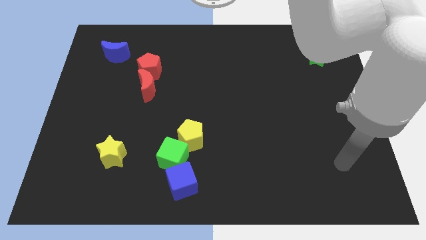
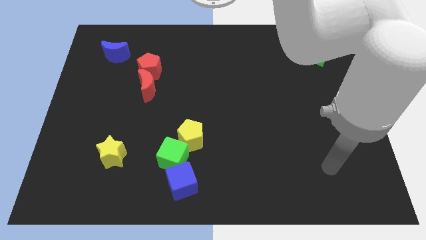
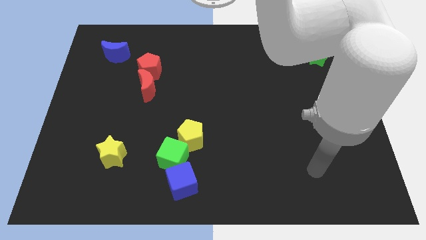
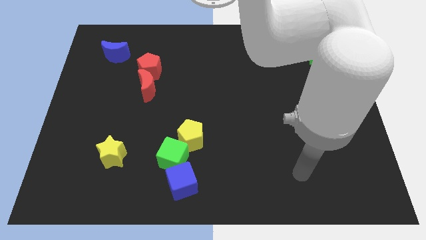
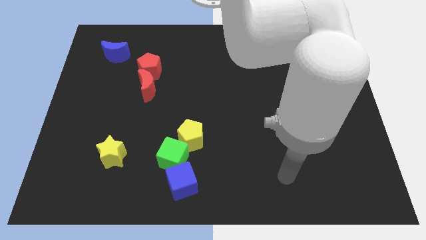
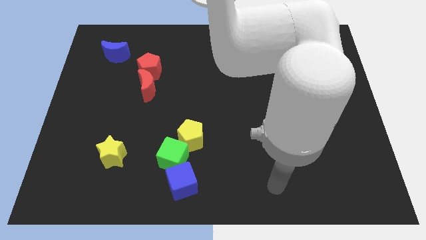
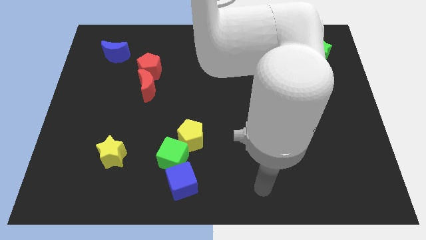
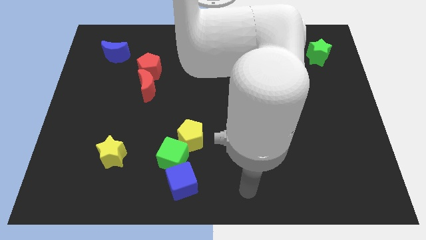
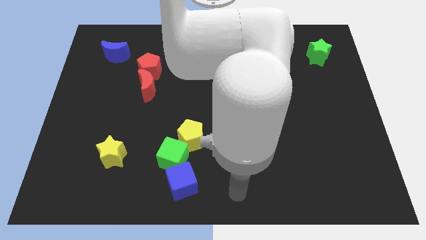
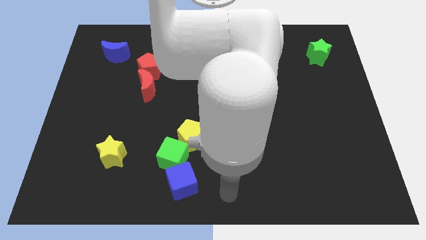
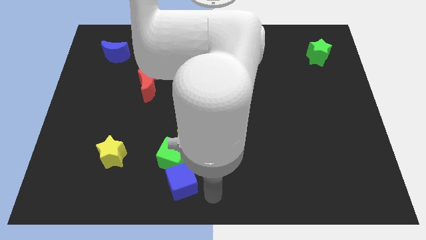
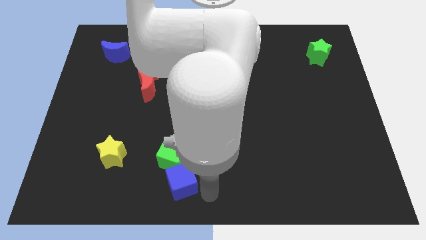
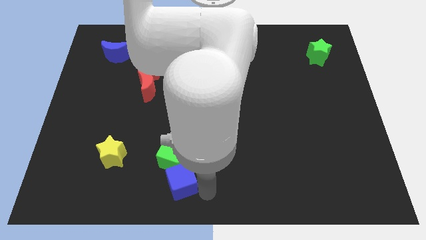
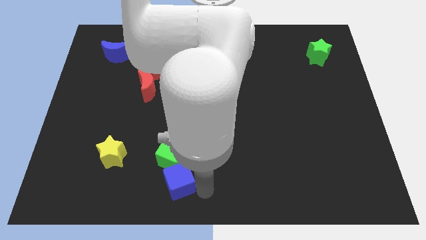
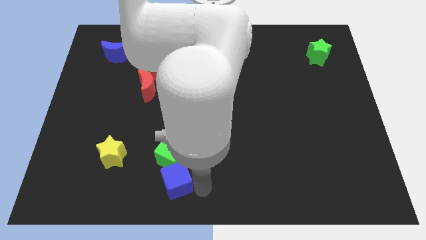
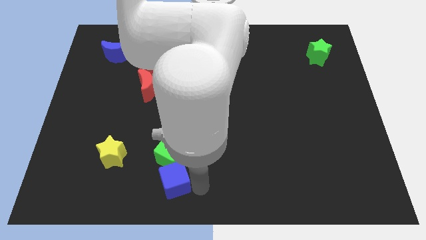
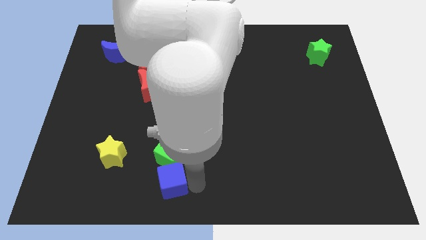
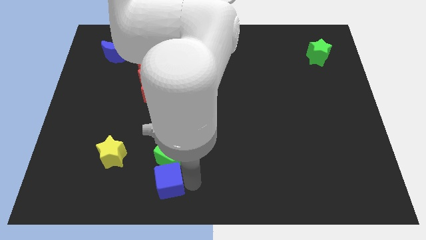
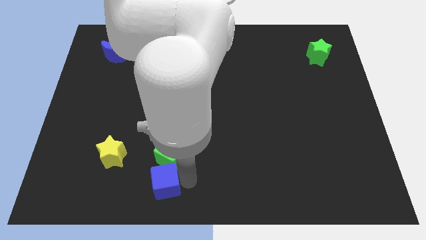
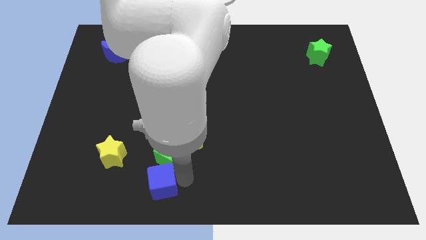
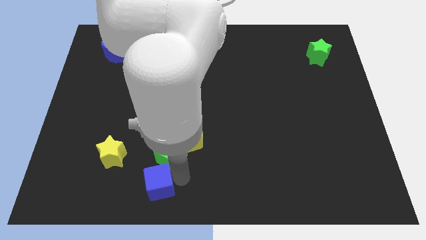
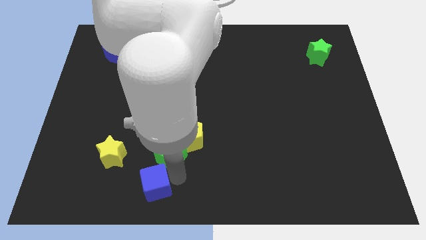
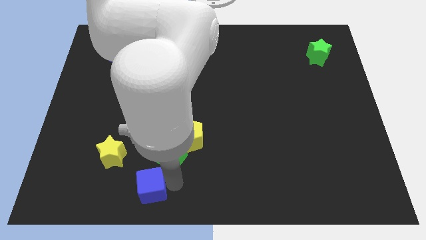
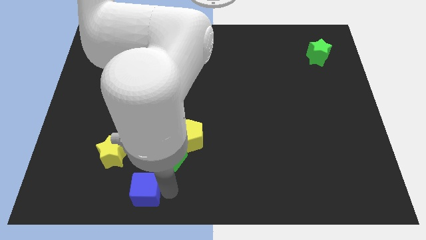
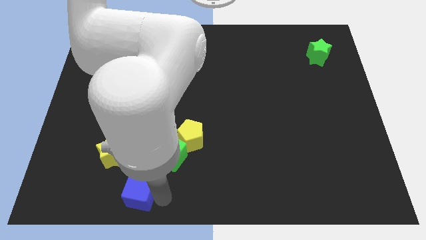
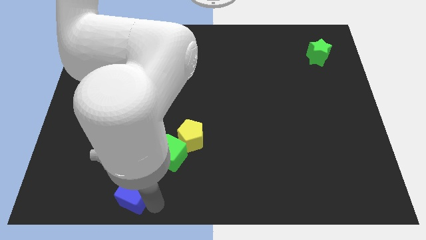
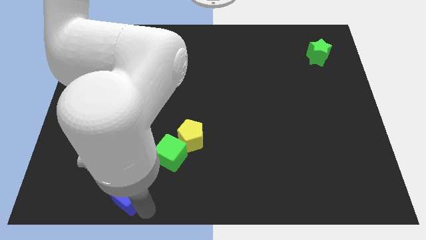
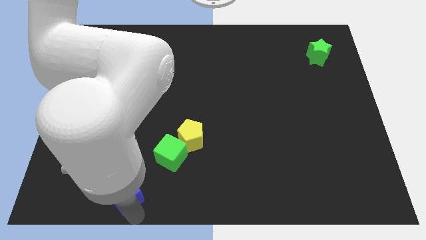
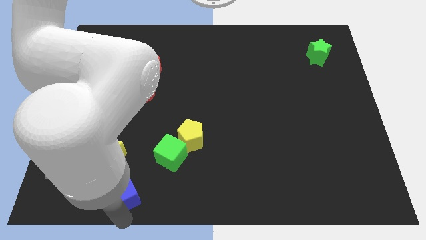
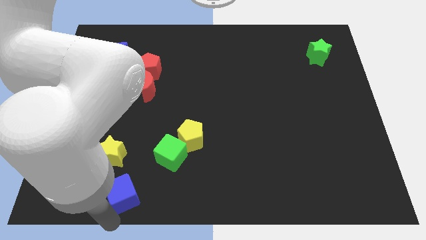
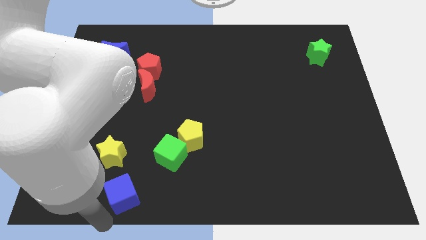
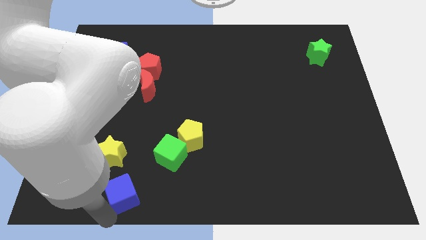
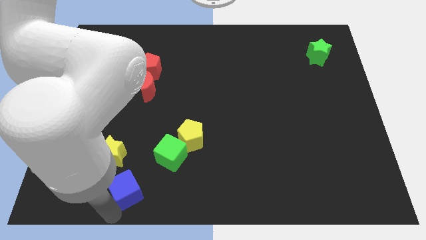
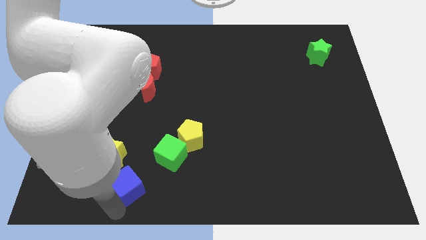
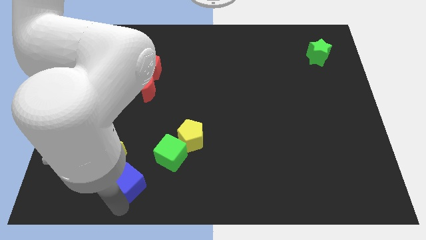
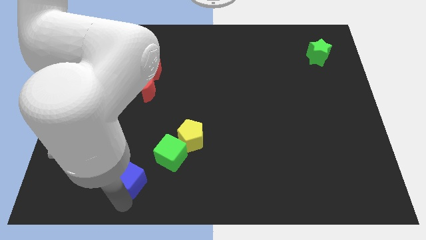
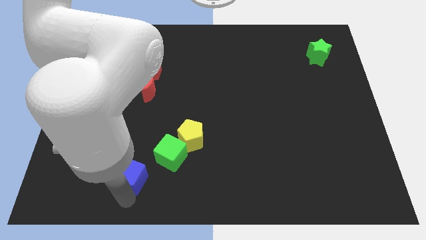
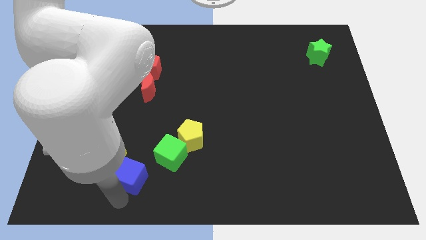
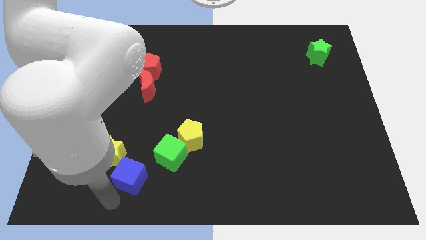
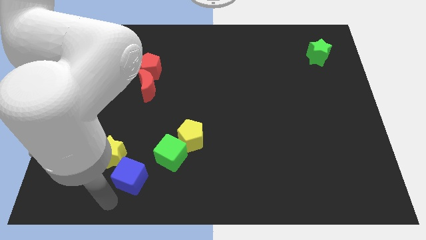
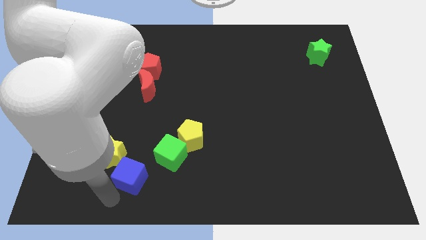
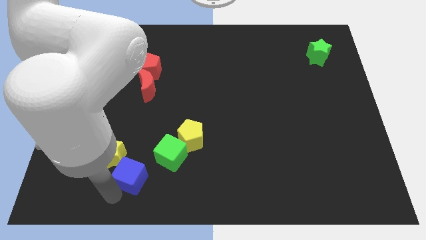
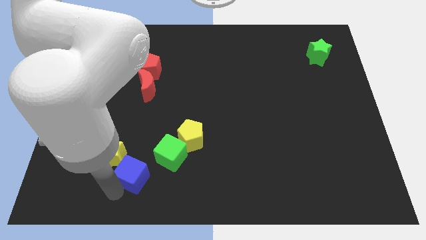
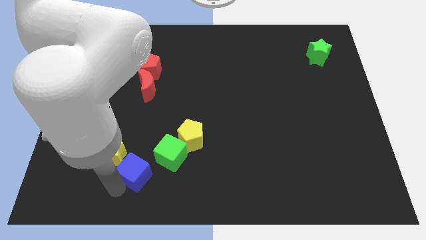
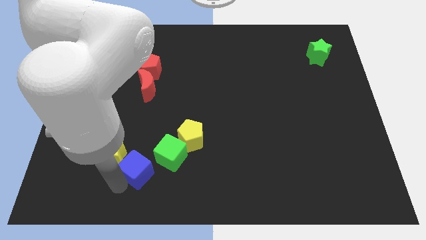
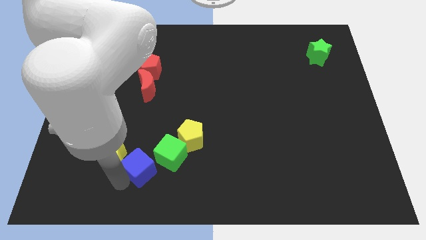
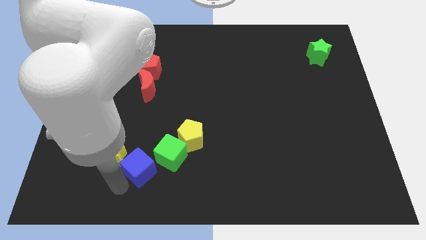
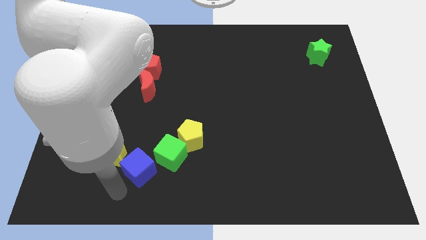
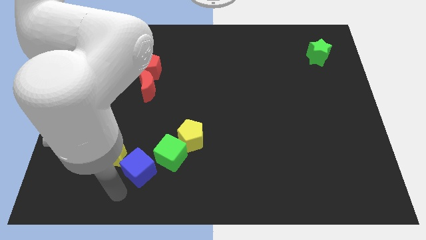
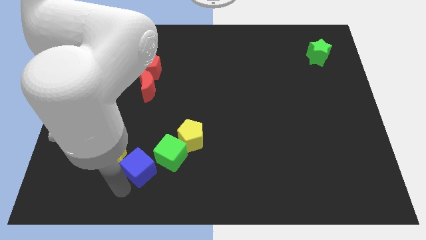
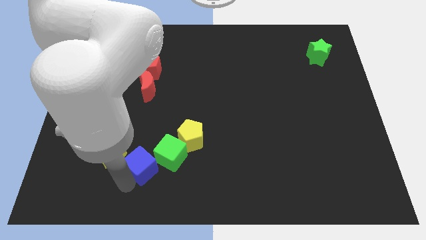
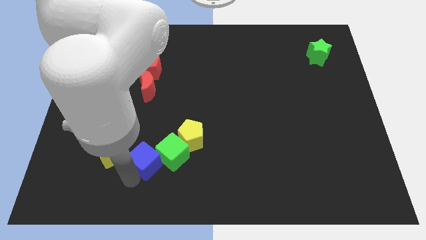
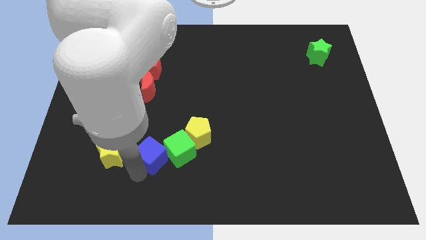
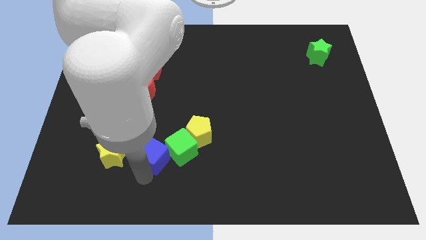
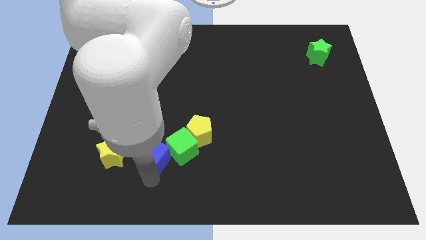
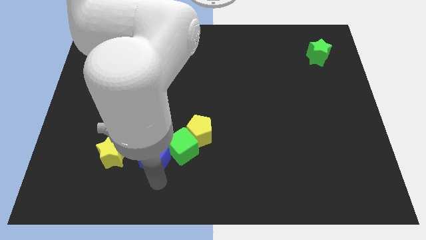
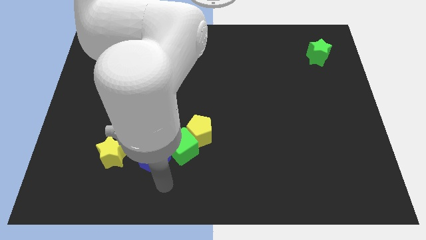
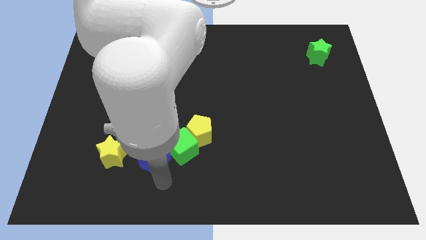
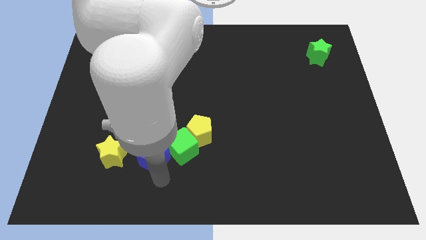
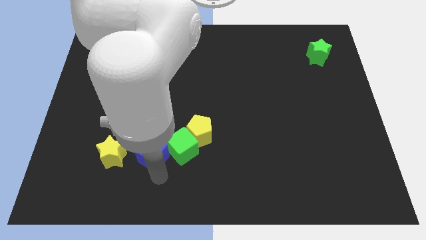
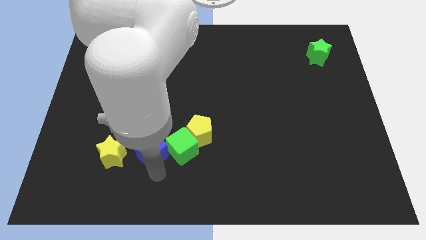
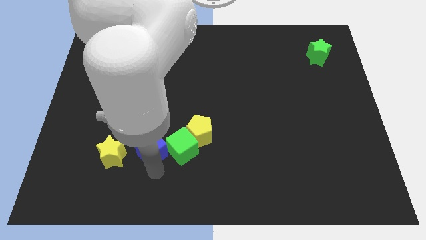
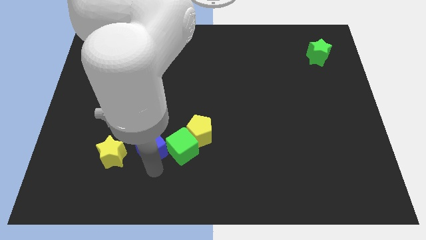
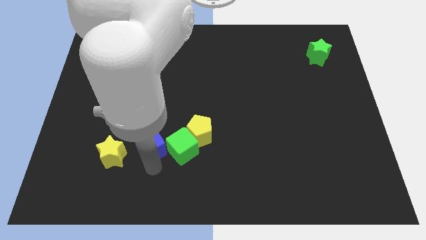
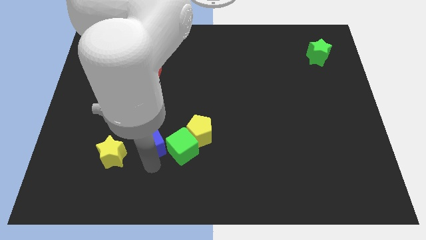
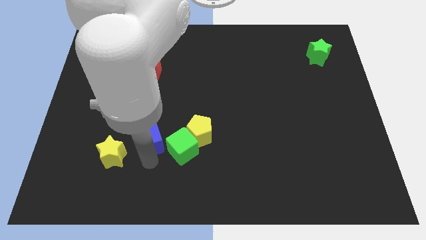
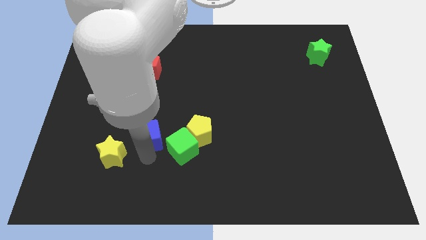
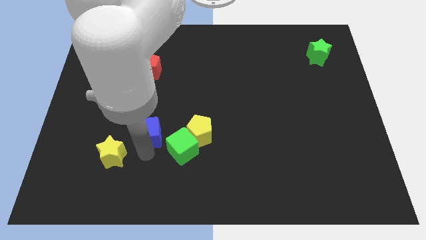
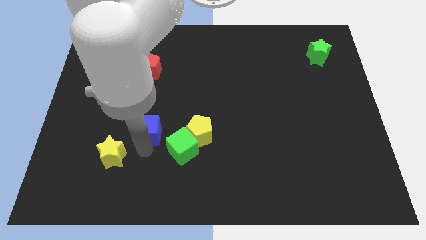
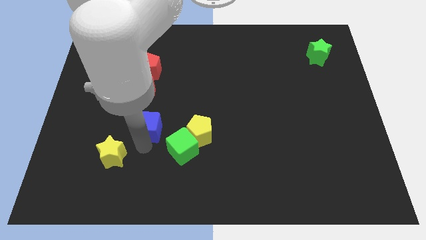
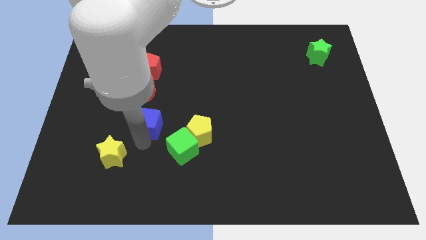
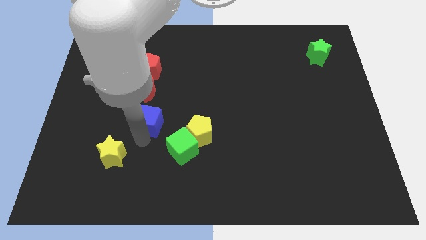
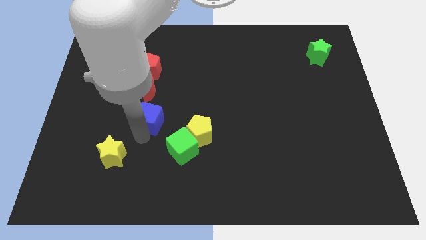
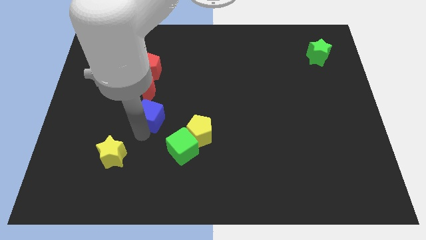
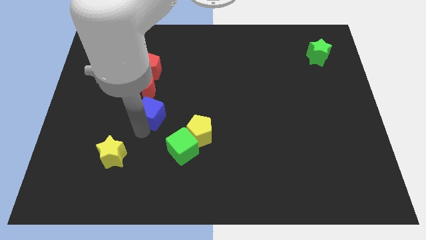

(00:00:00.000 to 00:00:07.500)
slide the blue cube diagonally down and to the right of the red moon
